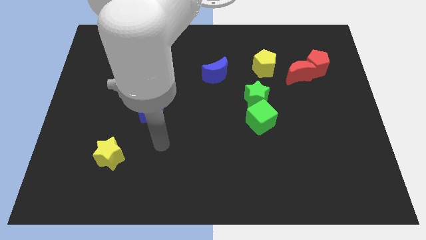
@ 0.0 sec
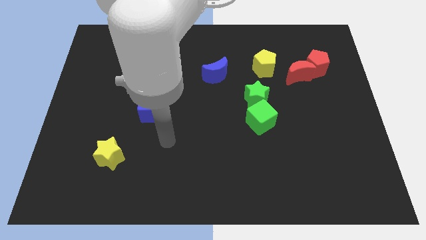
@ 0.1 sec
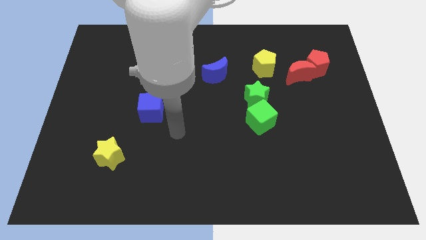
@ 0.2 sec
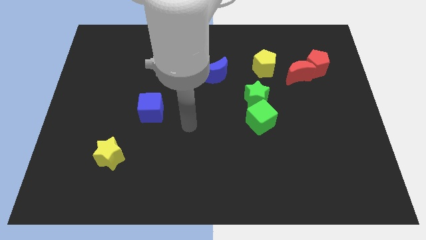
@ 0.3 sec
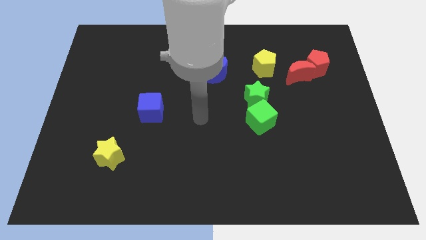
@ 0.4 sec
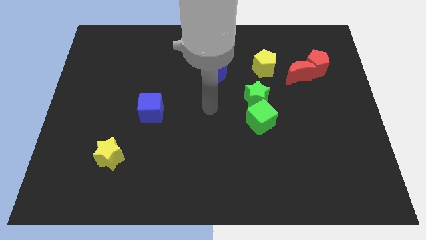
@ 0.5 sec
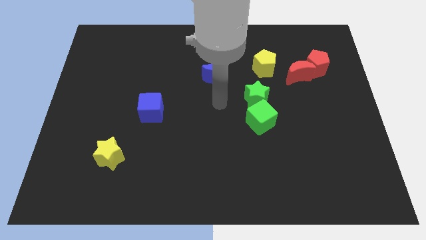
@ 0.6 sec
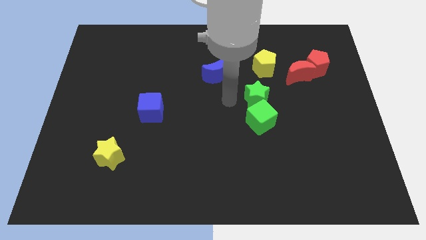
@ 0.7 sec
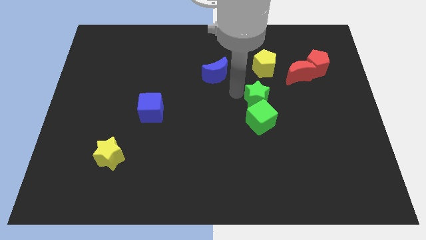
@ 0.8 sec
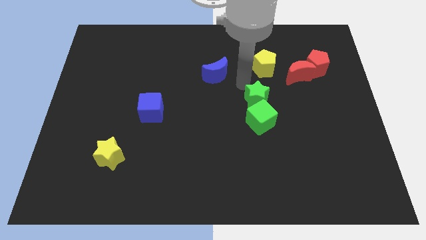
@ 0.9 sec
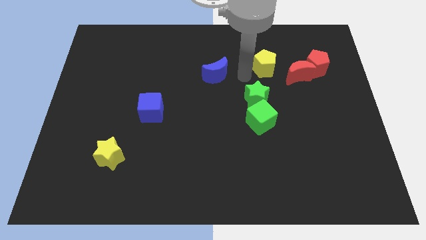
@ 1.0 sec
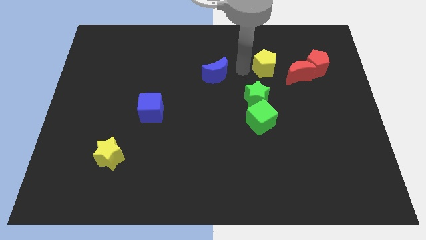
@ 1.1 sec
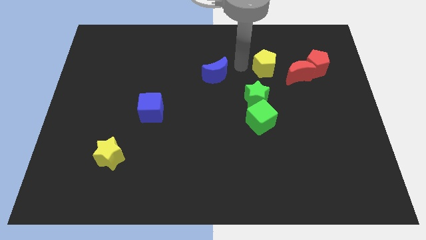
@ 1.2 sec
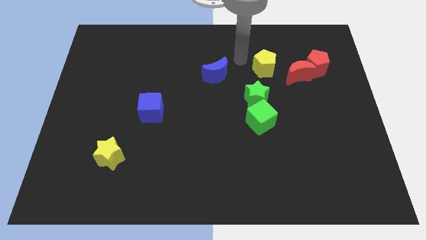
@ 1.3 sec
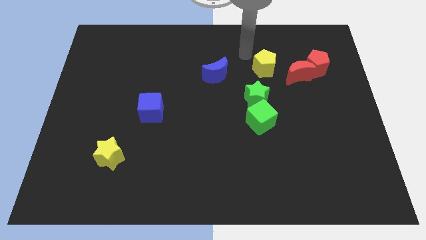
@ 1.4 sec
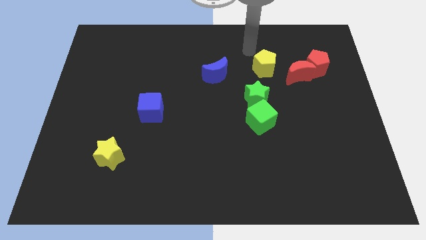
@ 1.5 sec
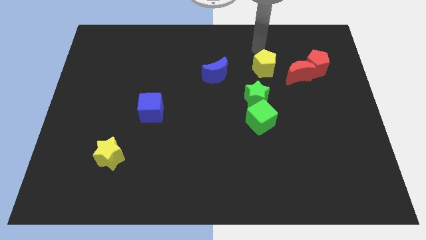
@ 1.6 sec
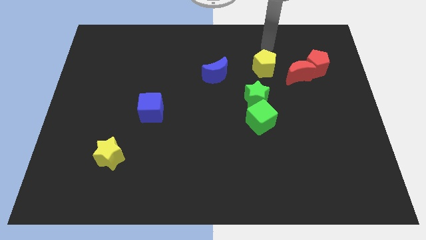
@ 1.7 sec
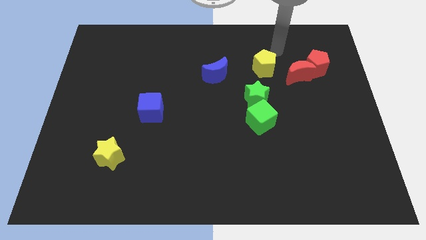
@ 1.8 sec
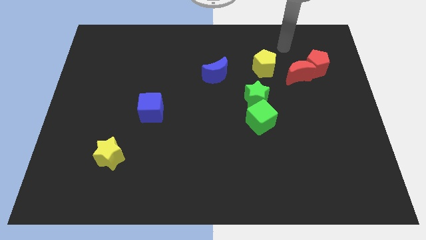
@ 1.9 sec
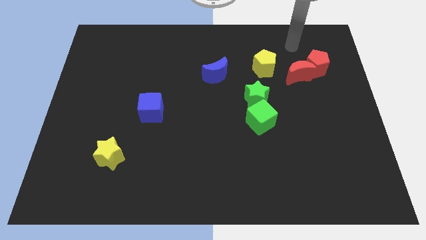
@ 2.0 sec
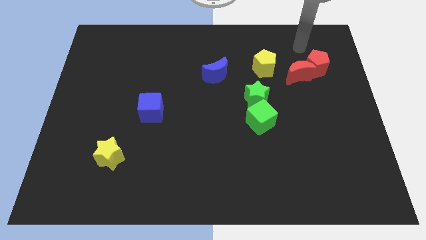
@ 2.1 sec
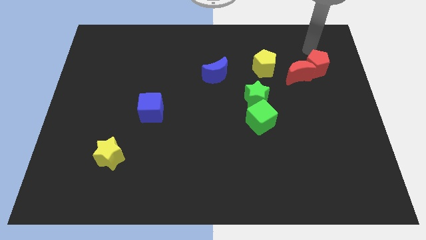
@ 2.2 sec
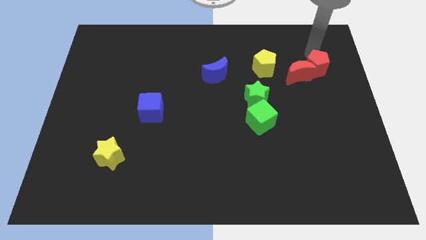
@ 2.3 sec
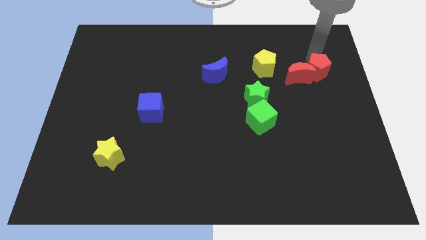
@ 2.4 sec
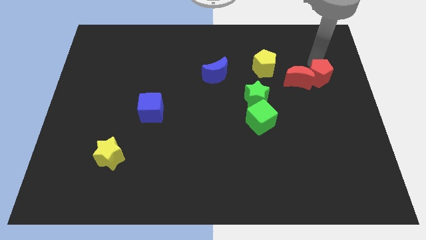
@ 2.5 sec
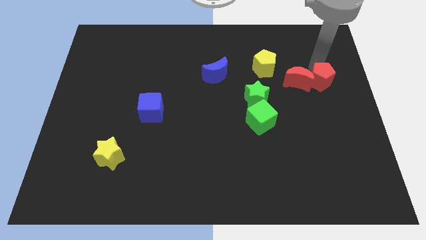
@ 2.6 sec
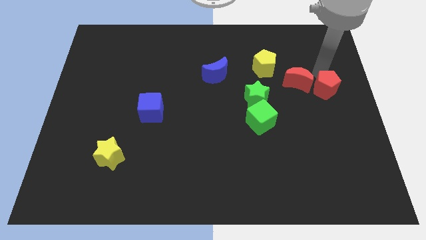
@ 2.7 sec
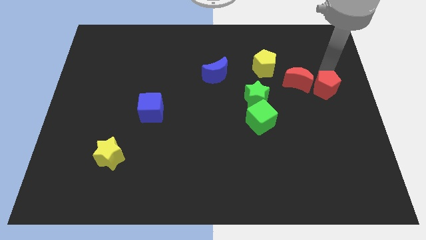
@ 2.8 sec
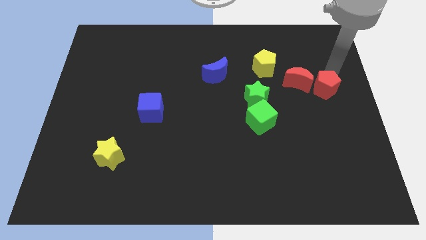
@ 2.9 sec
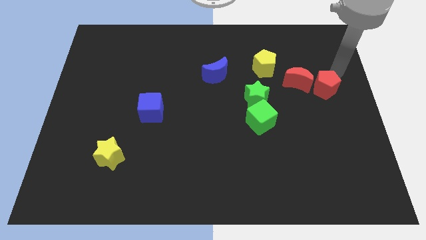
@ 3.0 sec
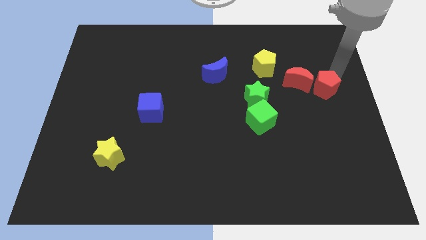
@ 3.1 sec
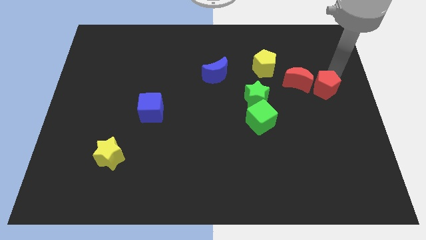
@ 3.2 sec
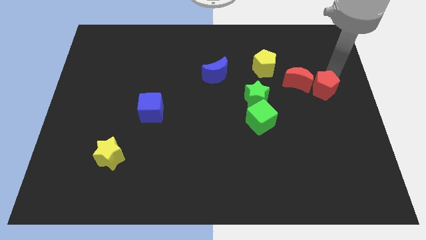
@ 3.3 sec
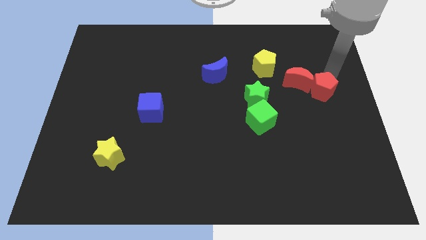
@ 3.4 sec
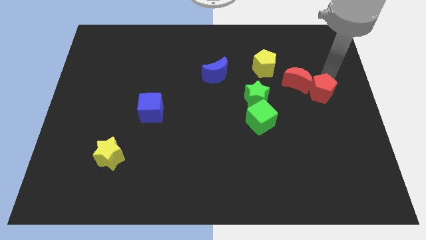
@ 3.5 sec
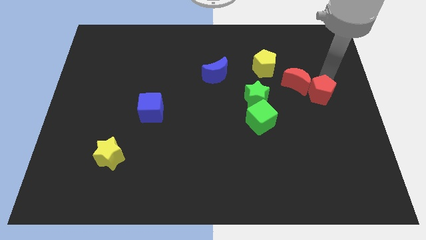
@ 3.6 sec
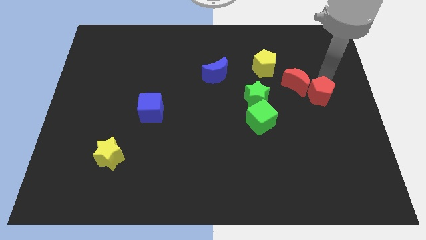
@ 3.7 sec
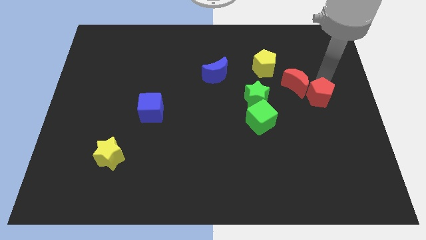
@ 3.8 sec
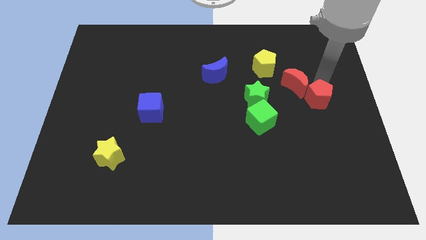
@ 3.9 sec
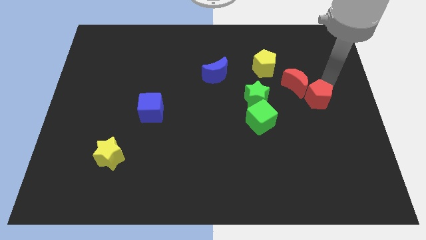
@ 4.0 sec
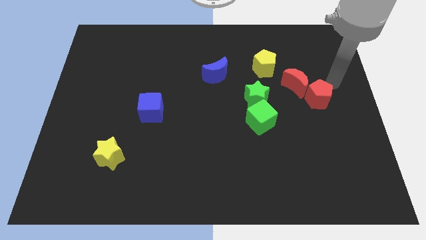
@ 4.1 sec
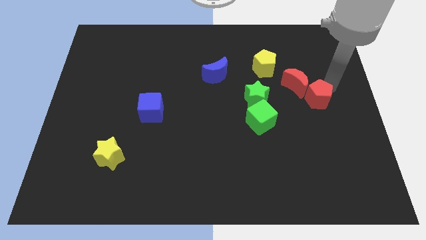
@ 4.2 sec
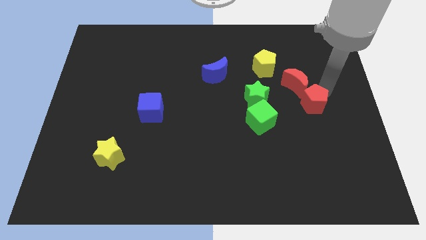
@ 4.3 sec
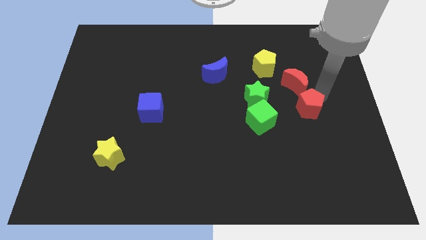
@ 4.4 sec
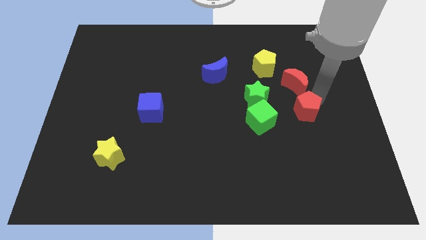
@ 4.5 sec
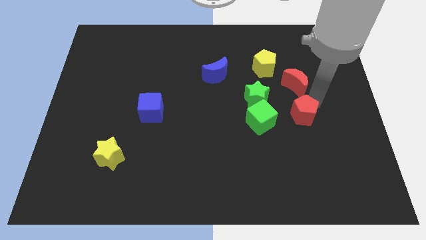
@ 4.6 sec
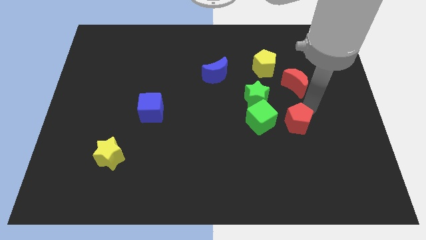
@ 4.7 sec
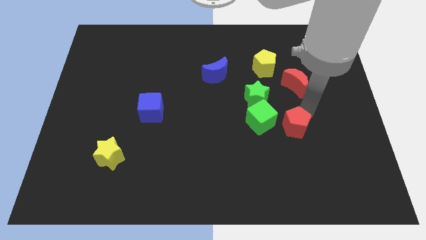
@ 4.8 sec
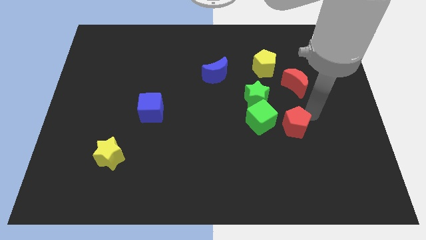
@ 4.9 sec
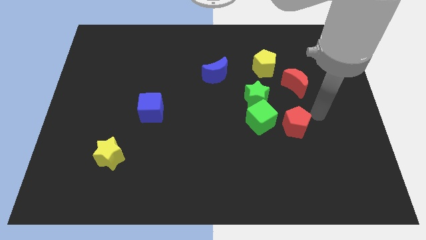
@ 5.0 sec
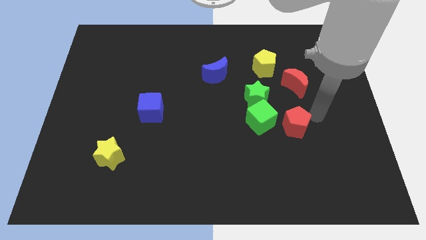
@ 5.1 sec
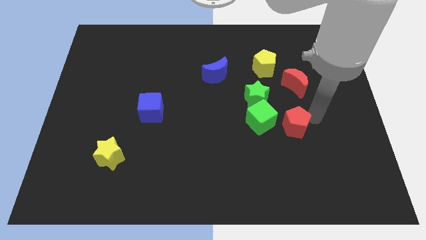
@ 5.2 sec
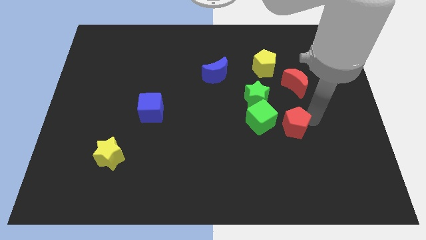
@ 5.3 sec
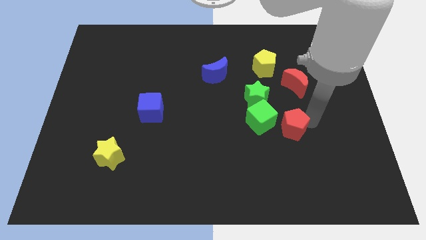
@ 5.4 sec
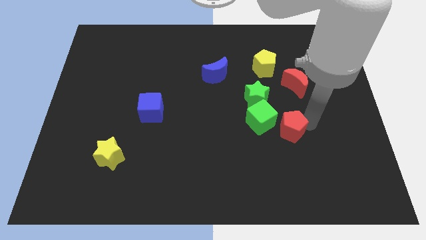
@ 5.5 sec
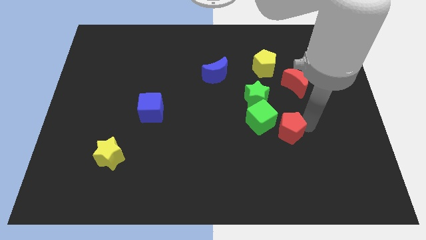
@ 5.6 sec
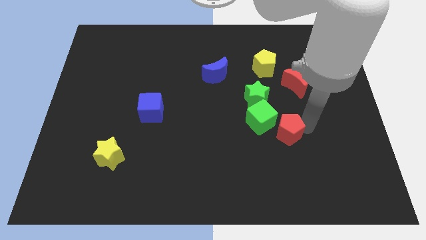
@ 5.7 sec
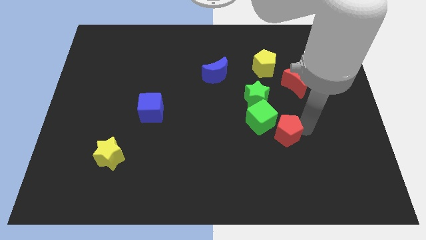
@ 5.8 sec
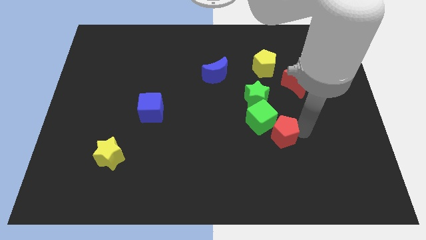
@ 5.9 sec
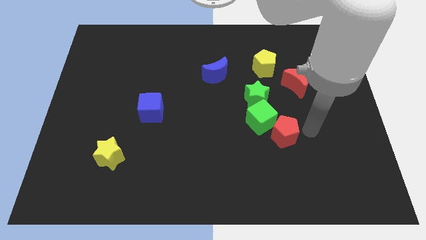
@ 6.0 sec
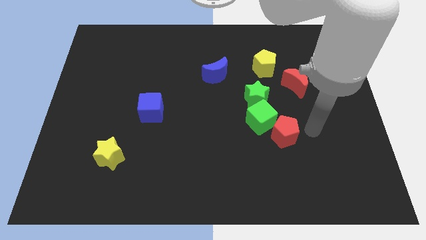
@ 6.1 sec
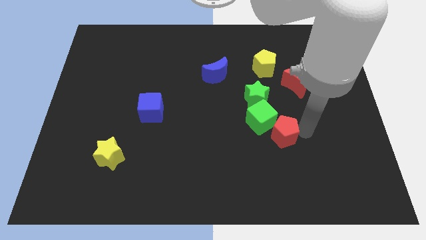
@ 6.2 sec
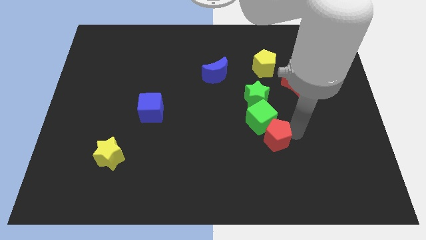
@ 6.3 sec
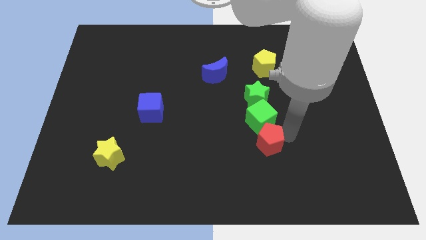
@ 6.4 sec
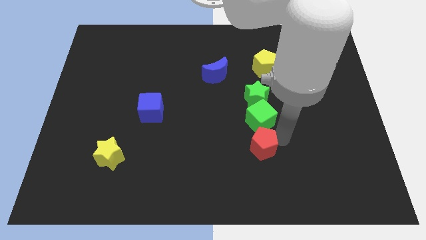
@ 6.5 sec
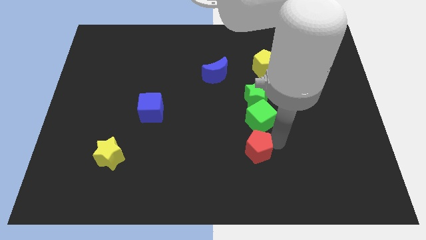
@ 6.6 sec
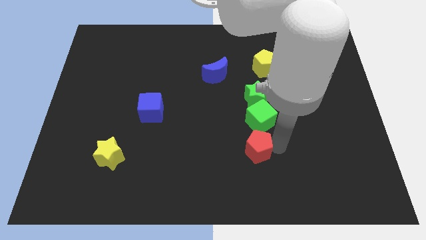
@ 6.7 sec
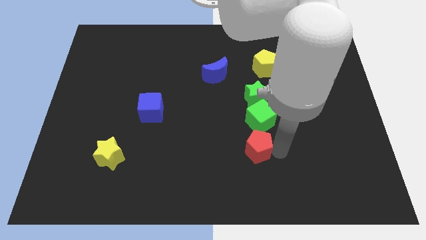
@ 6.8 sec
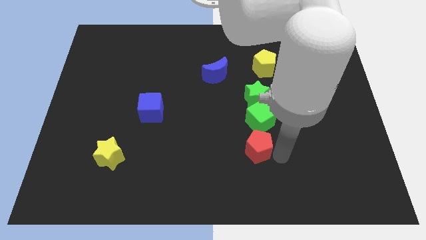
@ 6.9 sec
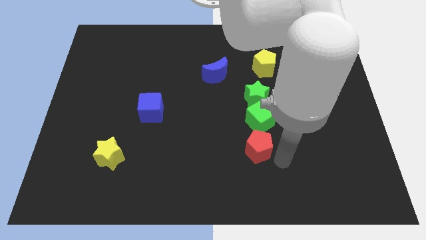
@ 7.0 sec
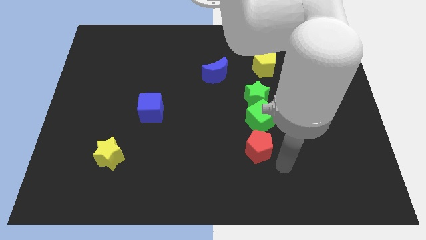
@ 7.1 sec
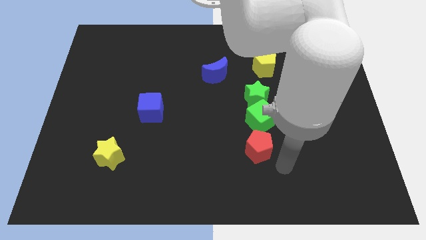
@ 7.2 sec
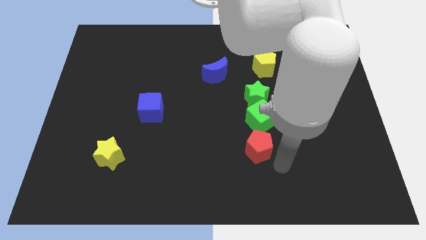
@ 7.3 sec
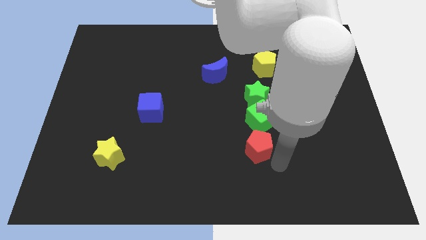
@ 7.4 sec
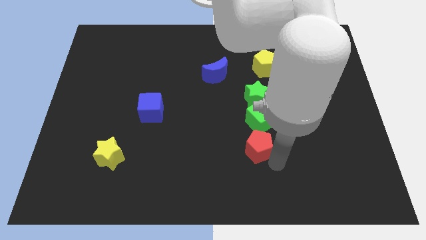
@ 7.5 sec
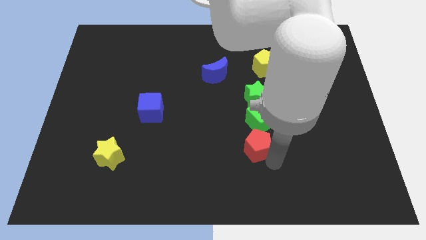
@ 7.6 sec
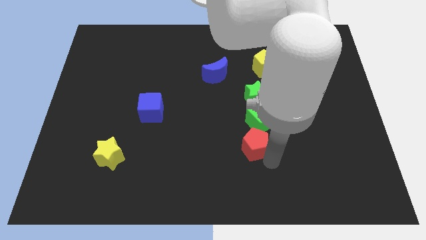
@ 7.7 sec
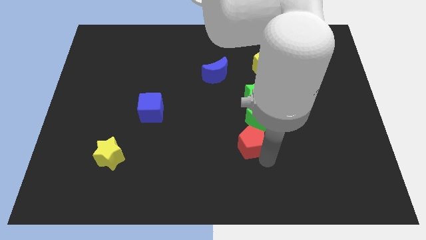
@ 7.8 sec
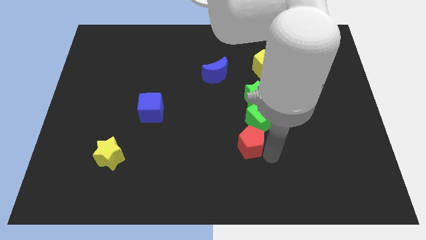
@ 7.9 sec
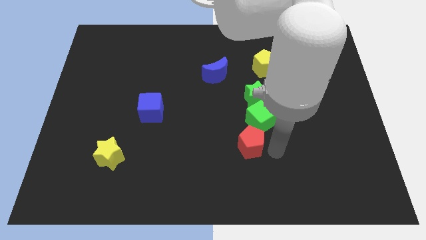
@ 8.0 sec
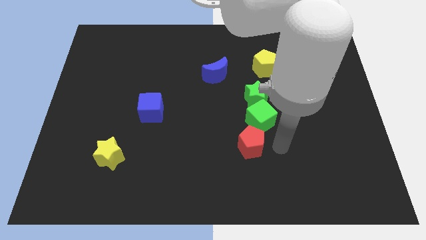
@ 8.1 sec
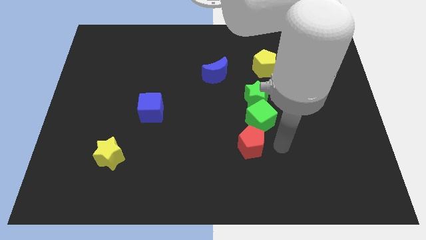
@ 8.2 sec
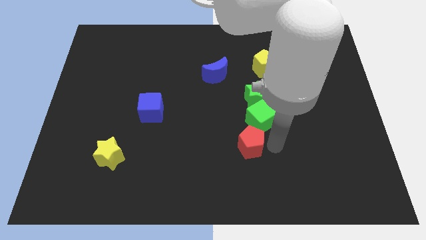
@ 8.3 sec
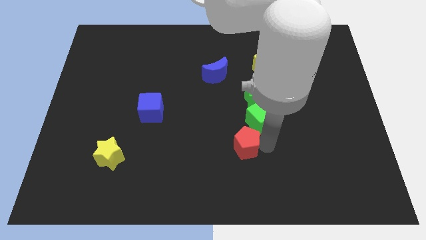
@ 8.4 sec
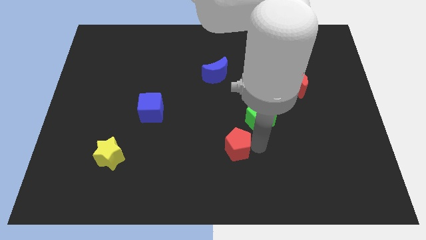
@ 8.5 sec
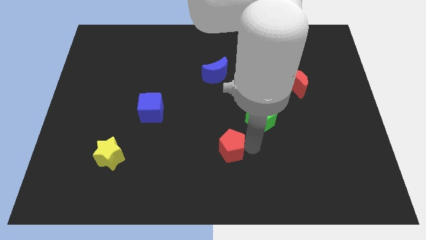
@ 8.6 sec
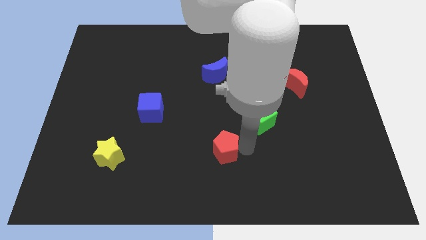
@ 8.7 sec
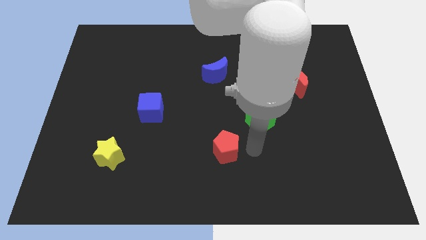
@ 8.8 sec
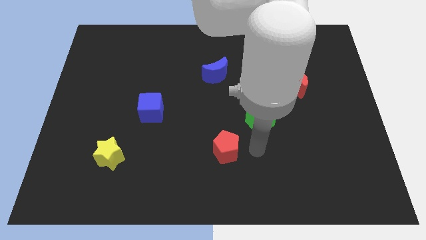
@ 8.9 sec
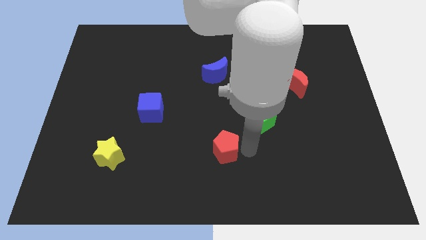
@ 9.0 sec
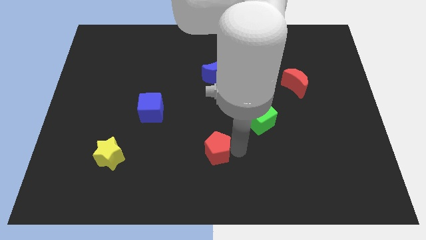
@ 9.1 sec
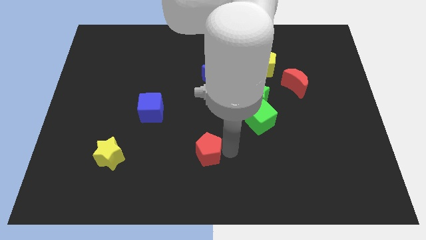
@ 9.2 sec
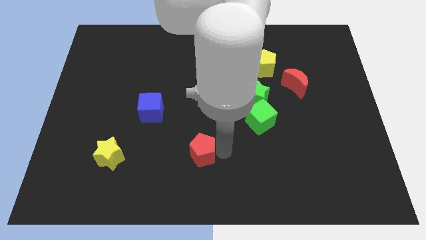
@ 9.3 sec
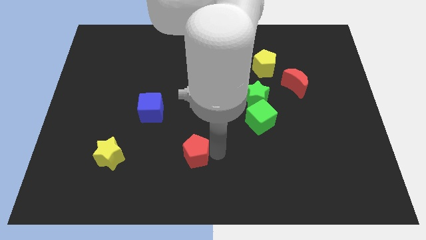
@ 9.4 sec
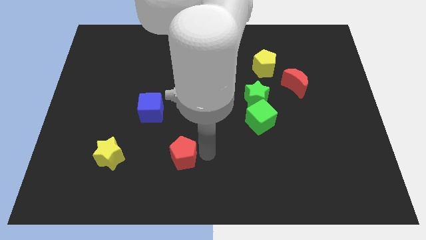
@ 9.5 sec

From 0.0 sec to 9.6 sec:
slide the red pentagon just right of the yellow star
